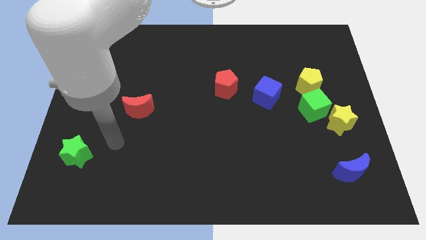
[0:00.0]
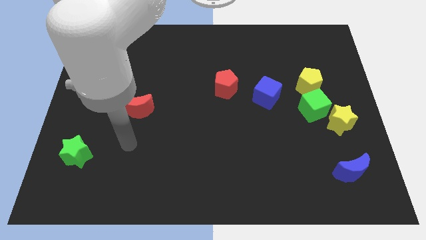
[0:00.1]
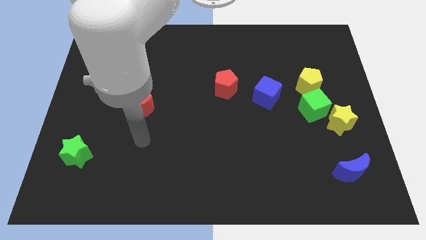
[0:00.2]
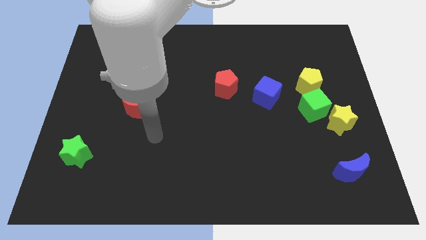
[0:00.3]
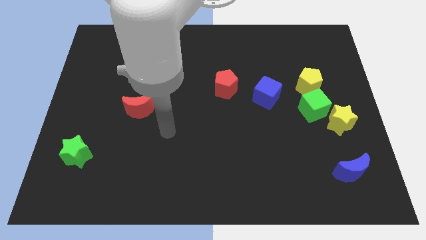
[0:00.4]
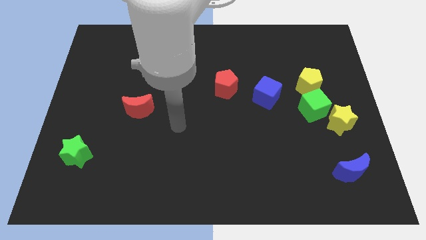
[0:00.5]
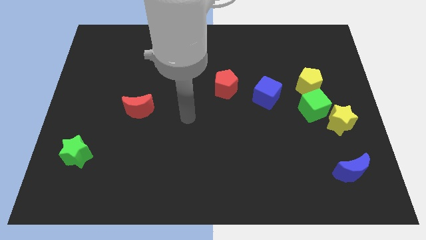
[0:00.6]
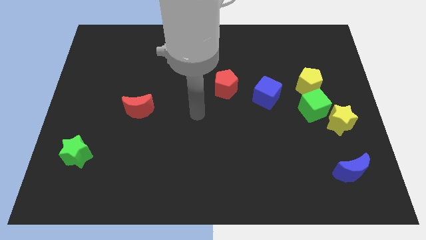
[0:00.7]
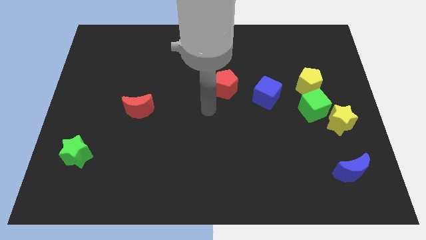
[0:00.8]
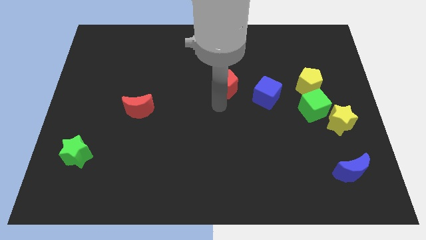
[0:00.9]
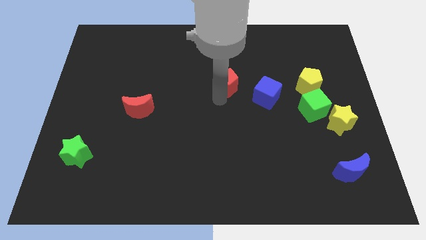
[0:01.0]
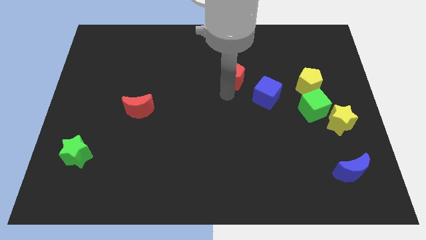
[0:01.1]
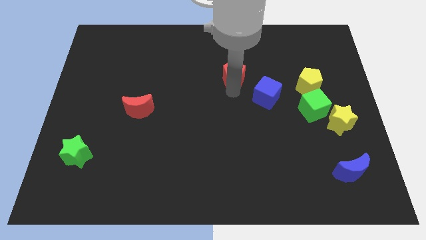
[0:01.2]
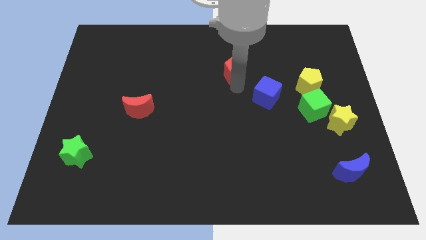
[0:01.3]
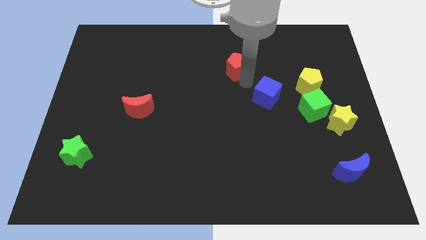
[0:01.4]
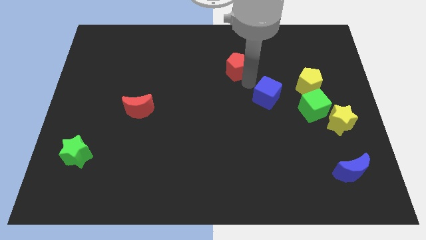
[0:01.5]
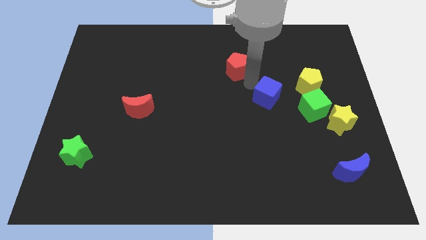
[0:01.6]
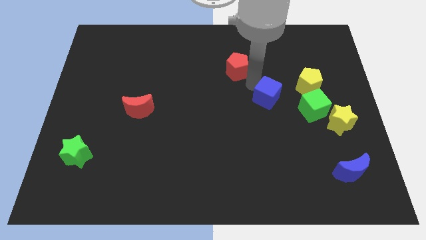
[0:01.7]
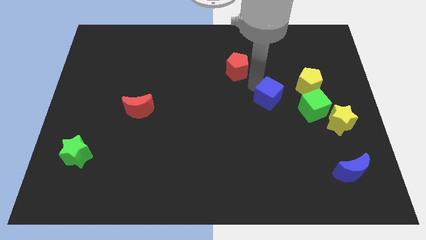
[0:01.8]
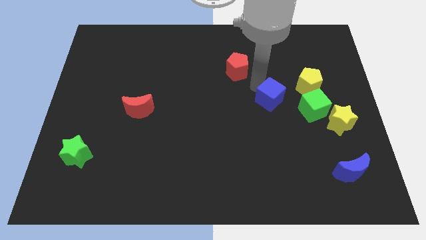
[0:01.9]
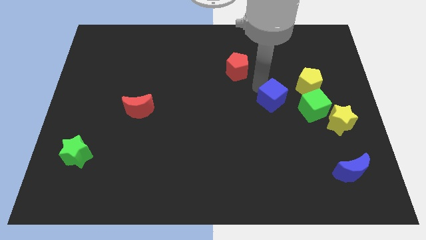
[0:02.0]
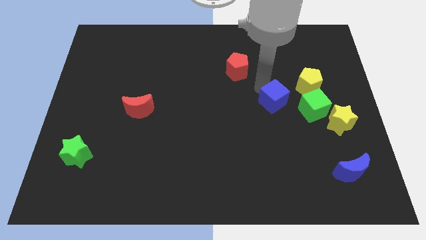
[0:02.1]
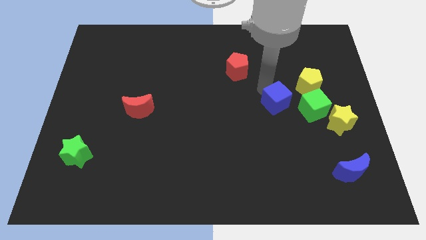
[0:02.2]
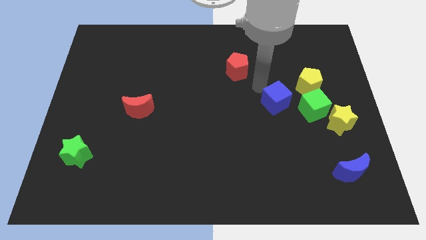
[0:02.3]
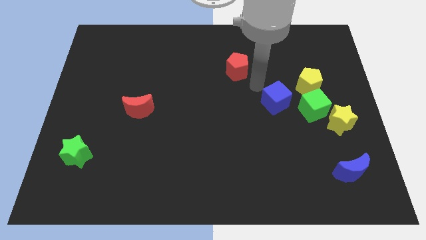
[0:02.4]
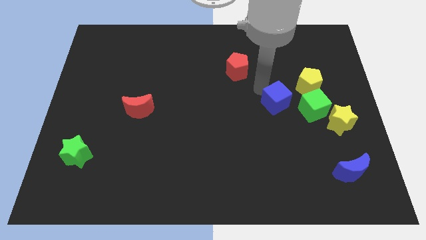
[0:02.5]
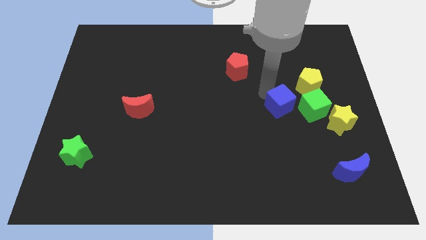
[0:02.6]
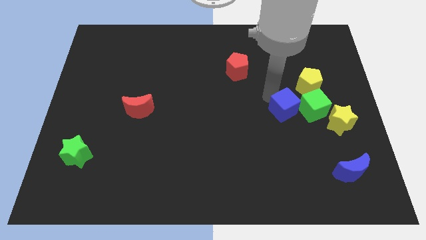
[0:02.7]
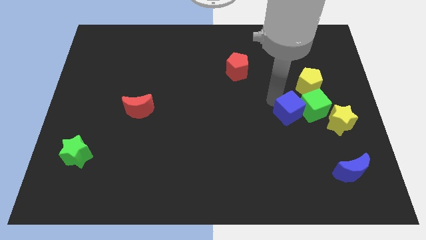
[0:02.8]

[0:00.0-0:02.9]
slide the blue cube somewhat down and right diagonally

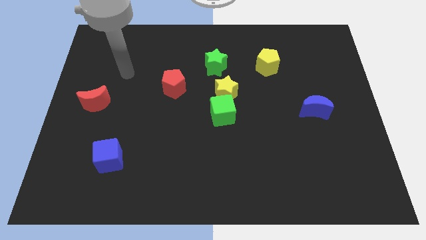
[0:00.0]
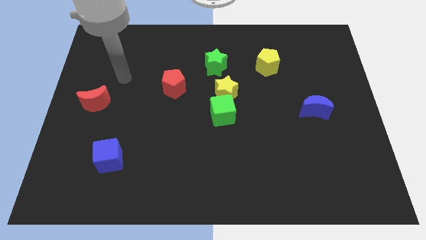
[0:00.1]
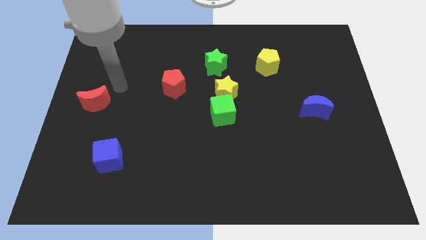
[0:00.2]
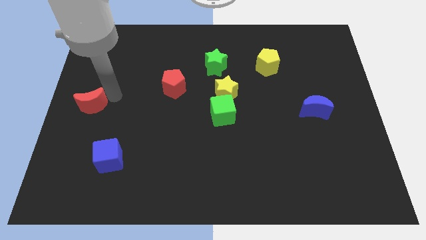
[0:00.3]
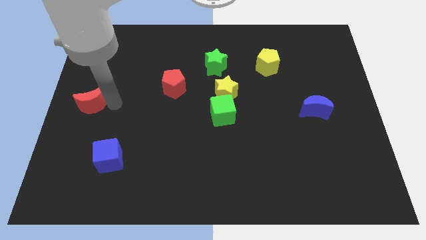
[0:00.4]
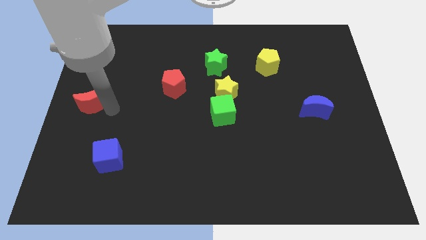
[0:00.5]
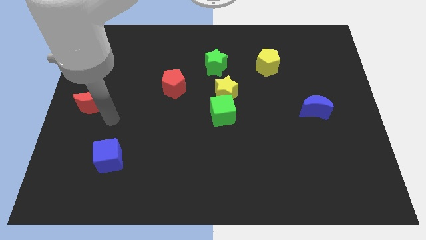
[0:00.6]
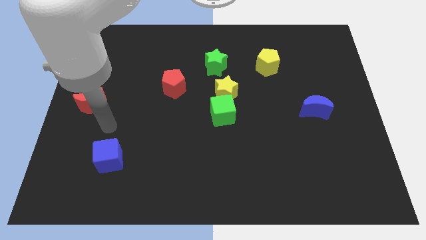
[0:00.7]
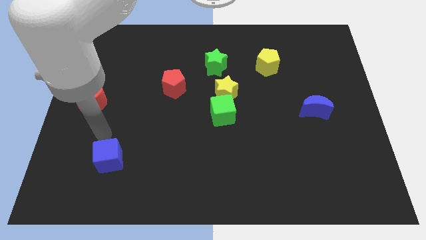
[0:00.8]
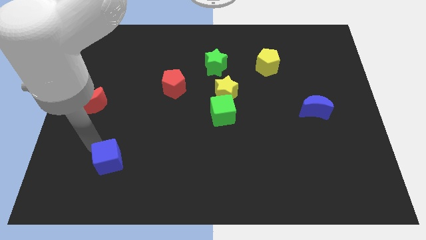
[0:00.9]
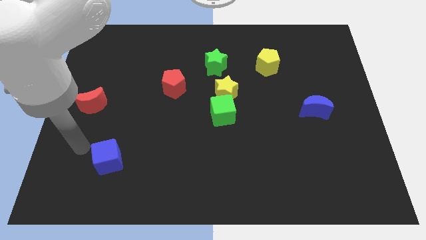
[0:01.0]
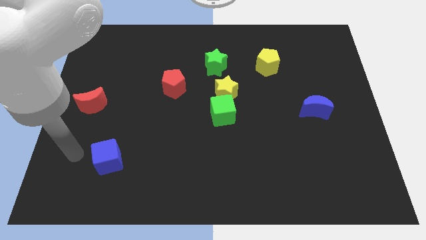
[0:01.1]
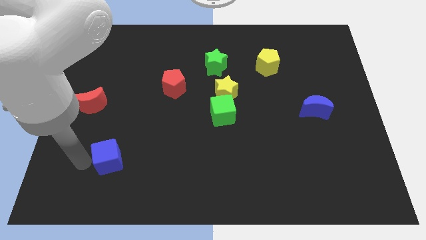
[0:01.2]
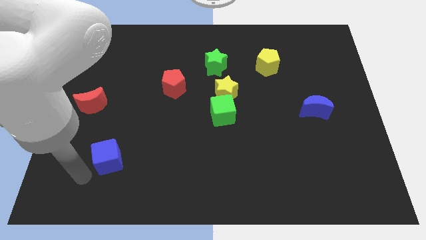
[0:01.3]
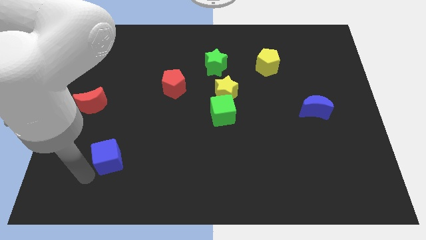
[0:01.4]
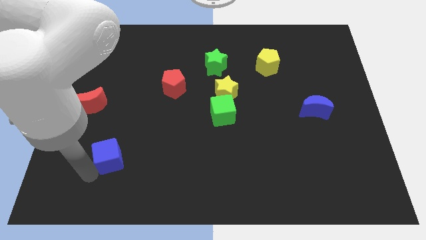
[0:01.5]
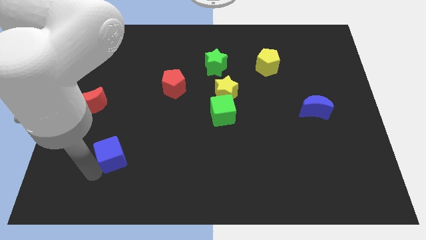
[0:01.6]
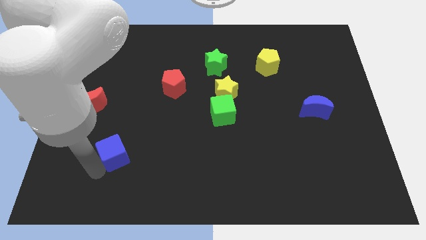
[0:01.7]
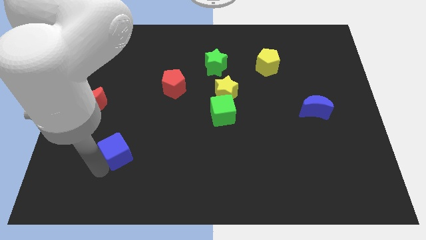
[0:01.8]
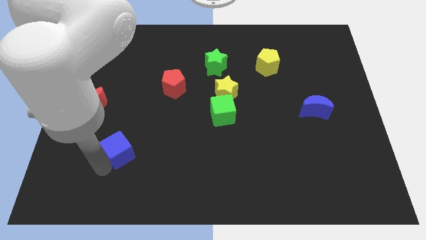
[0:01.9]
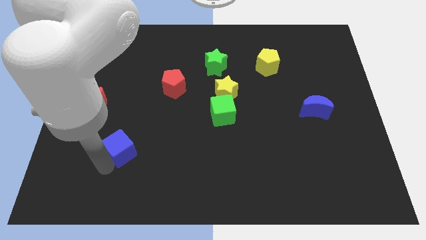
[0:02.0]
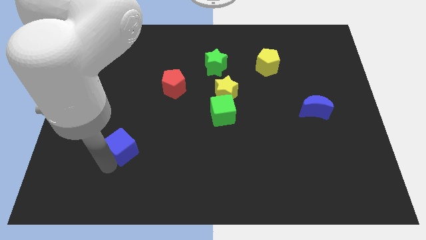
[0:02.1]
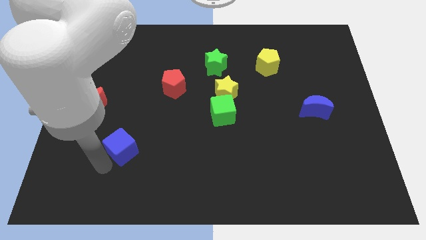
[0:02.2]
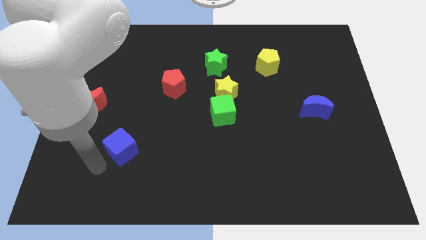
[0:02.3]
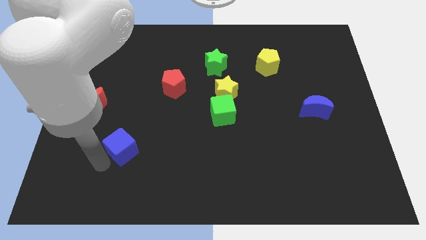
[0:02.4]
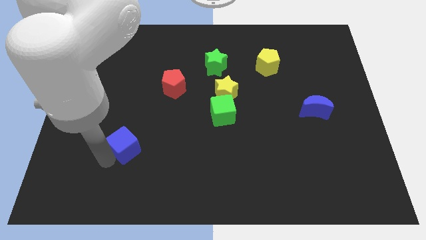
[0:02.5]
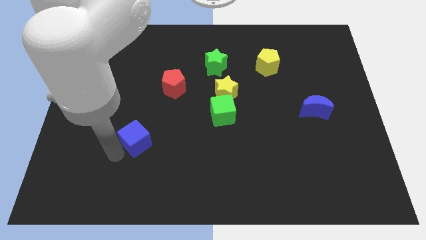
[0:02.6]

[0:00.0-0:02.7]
move the blue cube a little upwards and then right

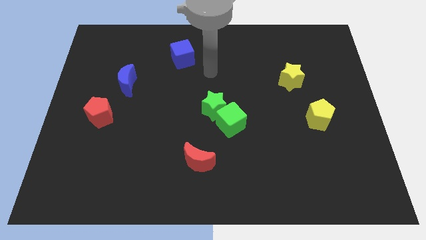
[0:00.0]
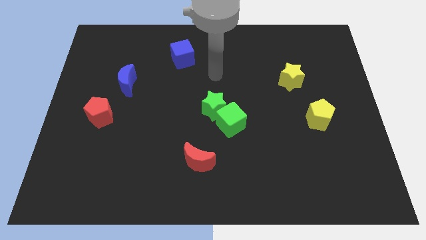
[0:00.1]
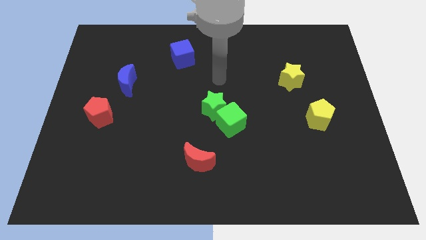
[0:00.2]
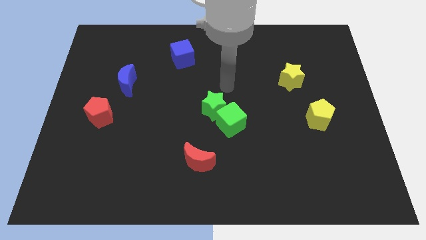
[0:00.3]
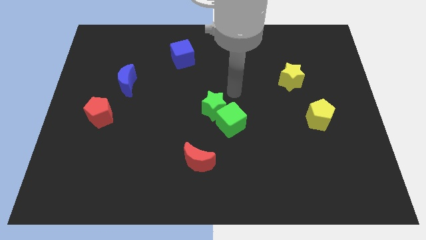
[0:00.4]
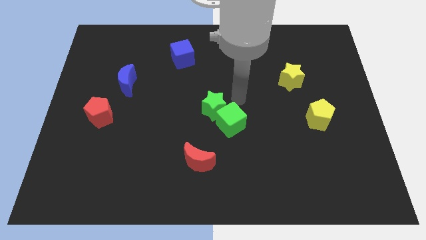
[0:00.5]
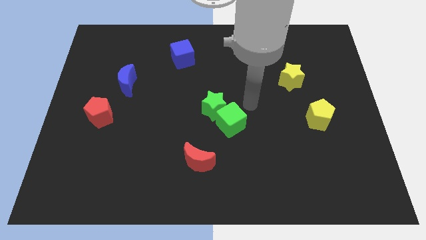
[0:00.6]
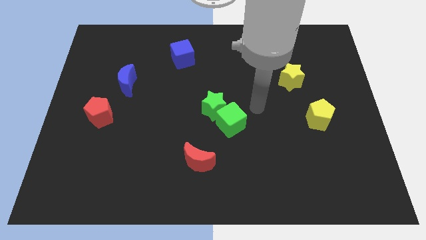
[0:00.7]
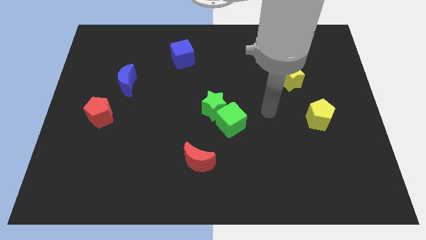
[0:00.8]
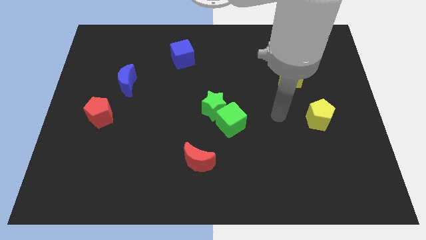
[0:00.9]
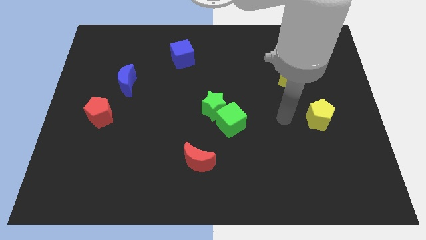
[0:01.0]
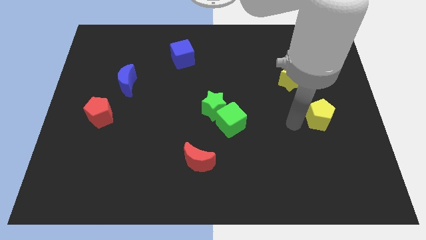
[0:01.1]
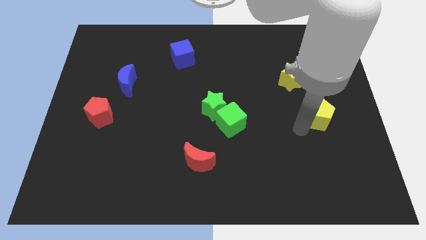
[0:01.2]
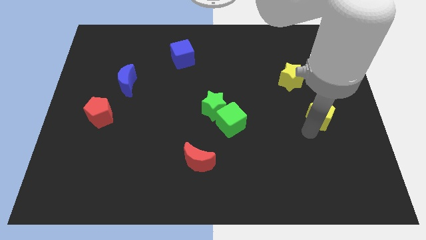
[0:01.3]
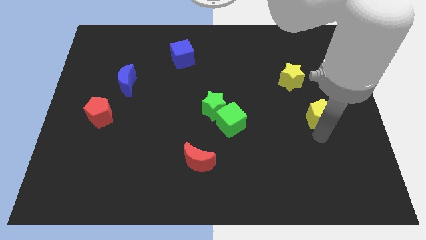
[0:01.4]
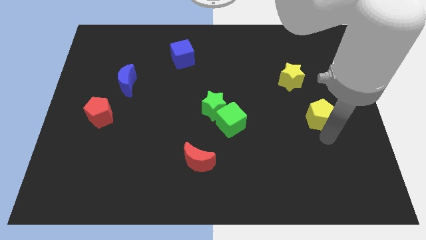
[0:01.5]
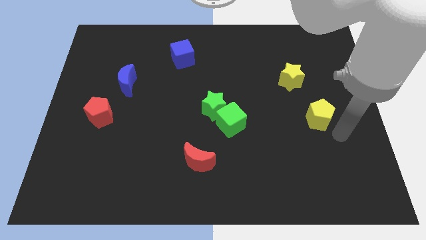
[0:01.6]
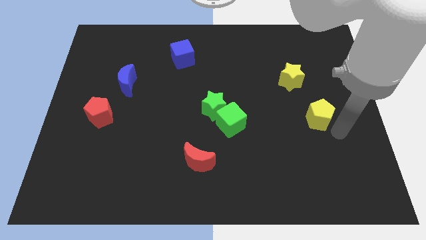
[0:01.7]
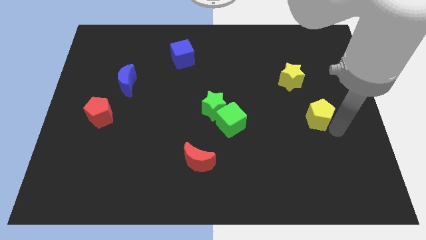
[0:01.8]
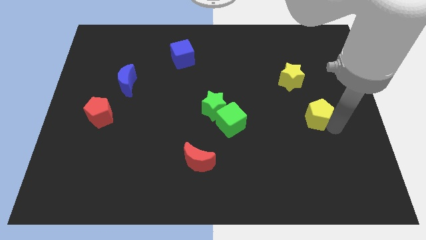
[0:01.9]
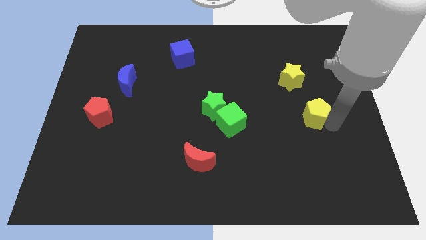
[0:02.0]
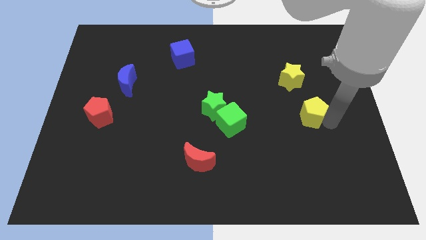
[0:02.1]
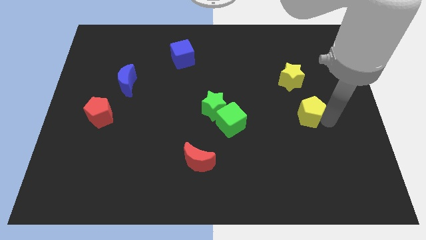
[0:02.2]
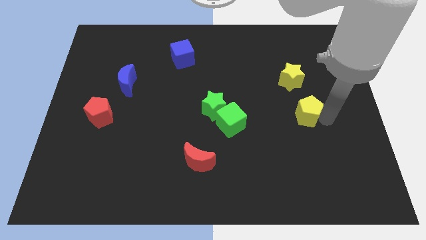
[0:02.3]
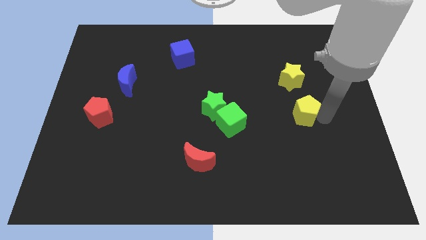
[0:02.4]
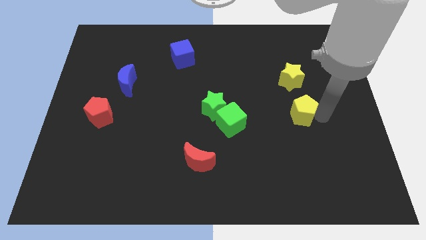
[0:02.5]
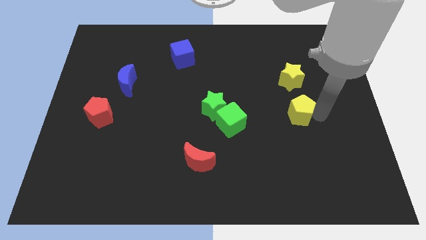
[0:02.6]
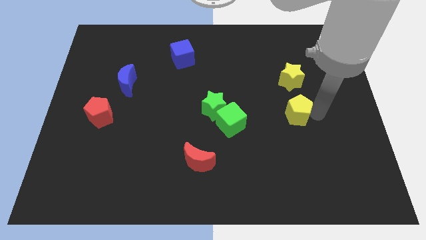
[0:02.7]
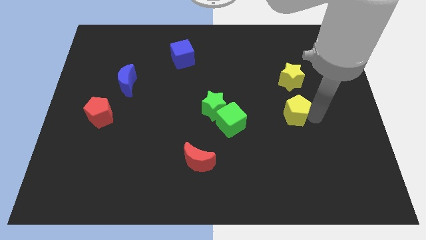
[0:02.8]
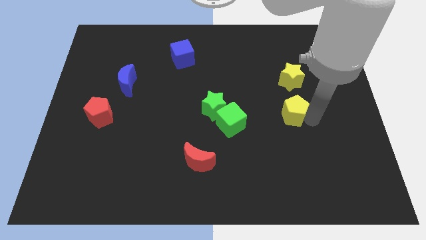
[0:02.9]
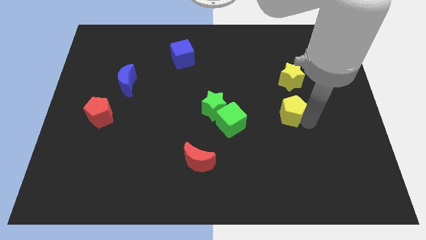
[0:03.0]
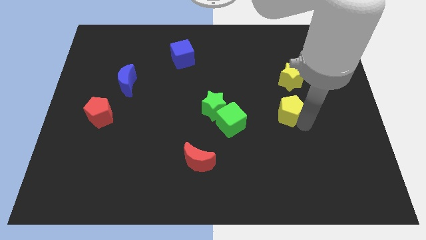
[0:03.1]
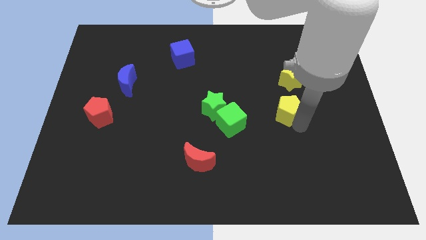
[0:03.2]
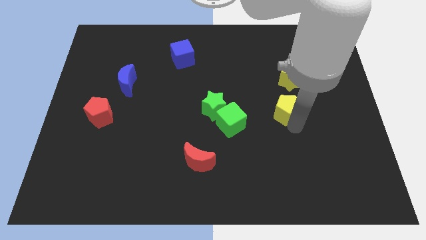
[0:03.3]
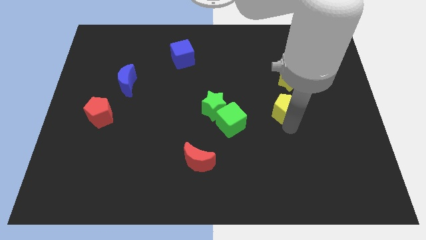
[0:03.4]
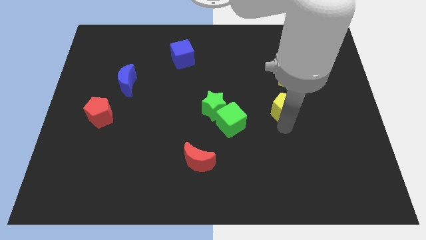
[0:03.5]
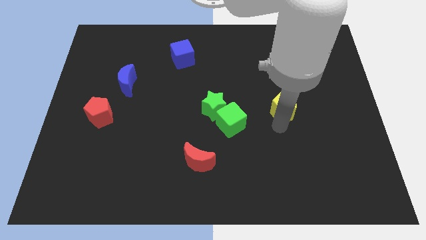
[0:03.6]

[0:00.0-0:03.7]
slide the yellow pentagon a bit upwards and left
